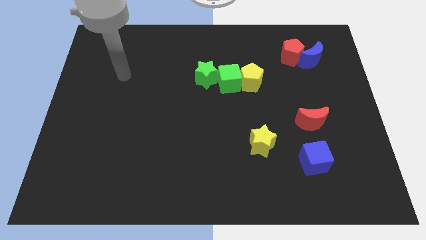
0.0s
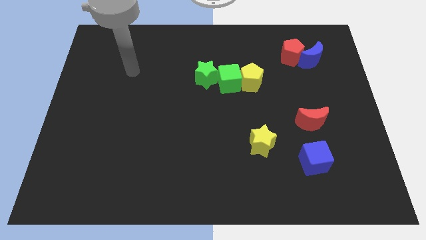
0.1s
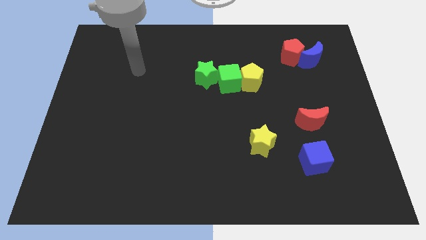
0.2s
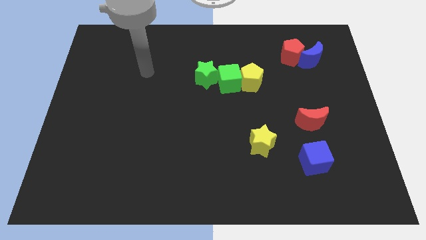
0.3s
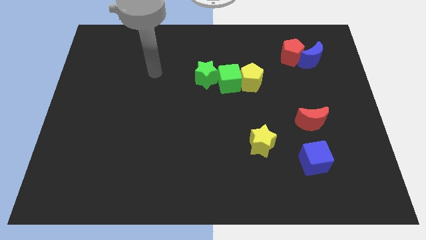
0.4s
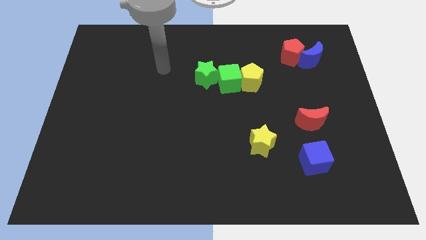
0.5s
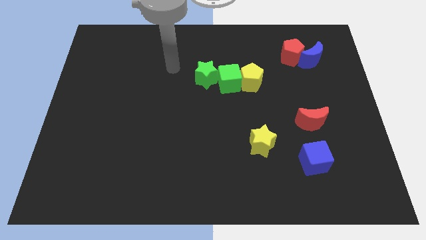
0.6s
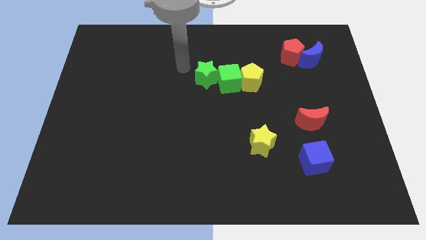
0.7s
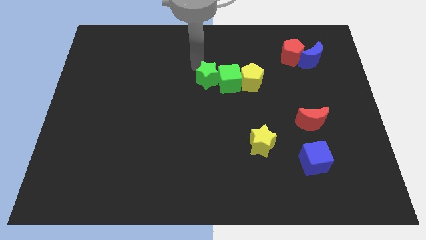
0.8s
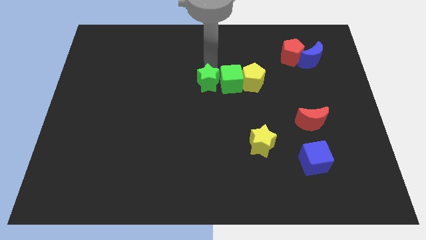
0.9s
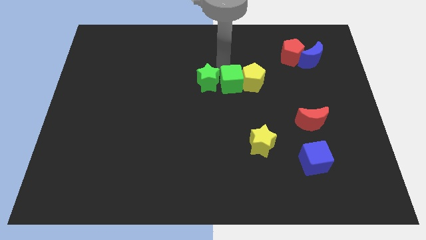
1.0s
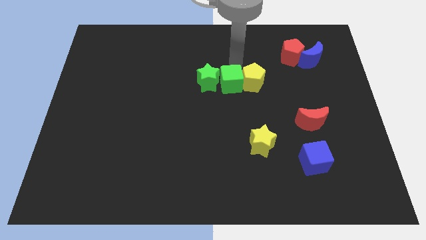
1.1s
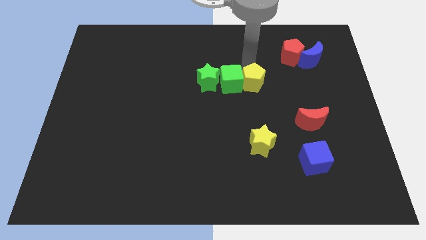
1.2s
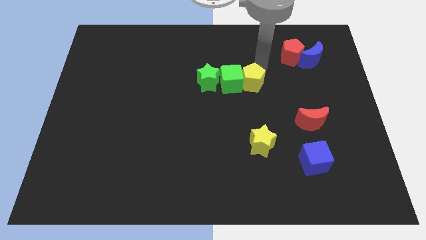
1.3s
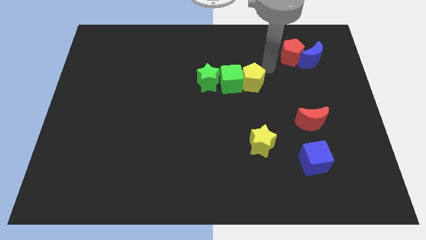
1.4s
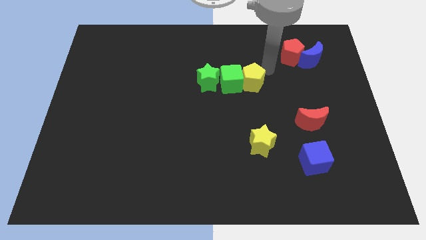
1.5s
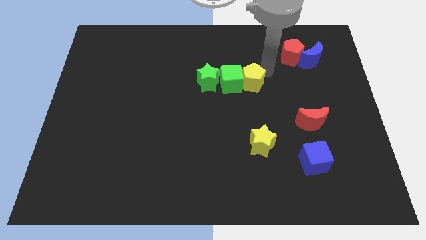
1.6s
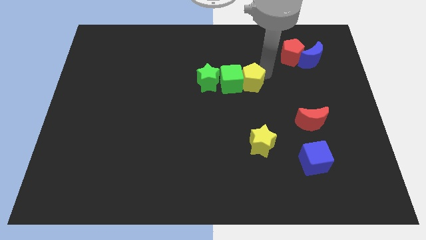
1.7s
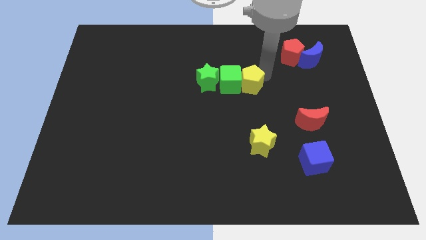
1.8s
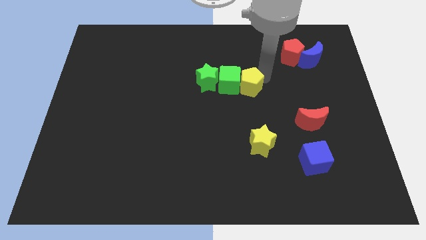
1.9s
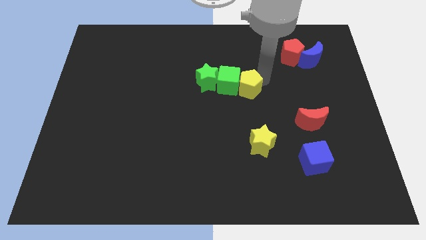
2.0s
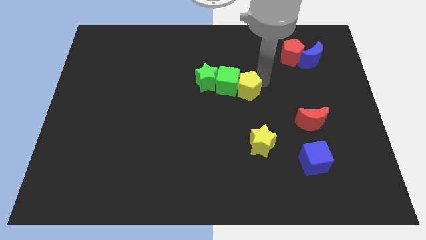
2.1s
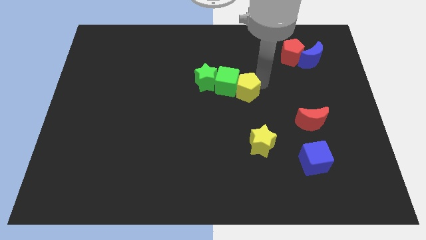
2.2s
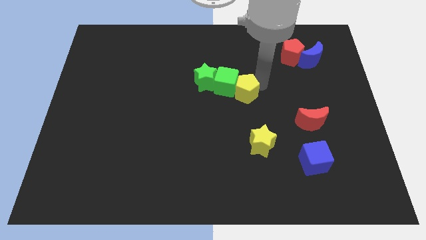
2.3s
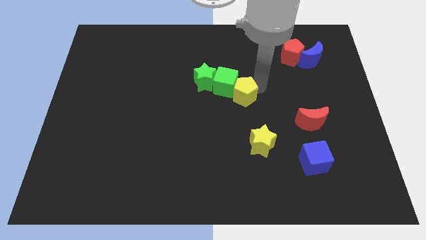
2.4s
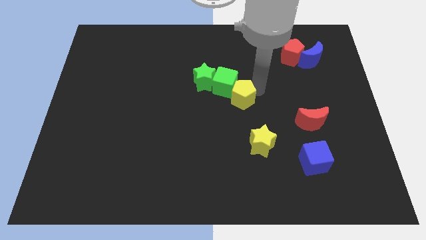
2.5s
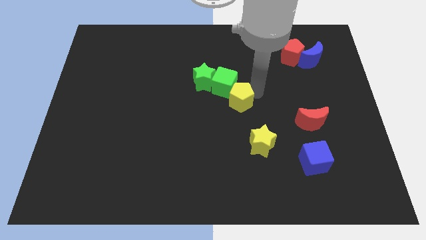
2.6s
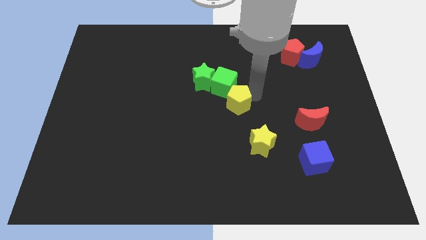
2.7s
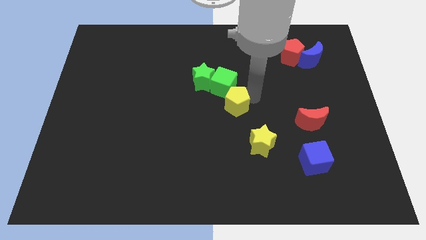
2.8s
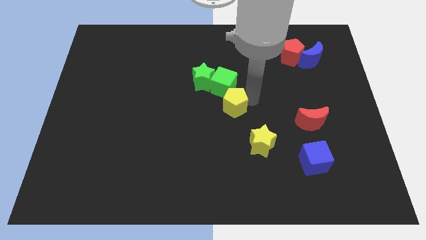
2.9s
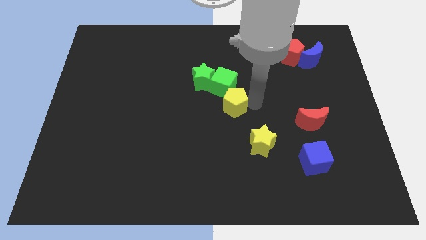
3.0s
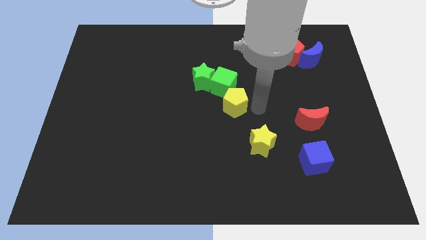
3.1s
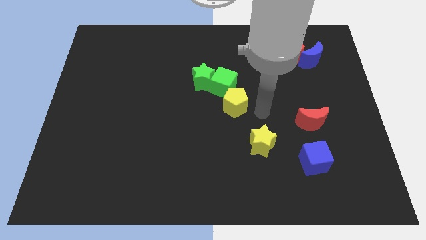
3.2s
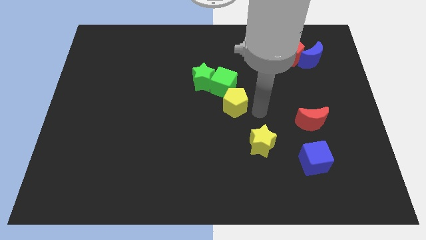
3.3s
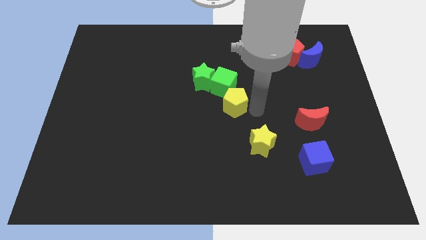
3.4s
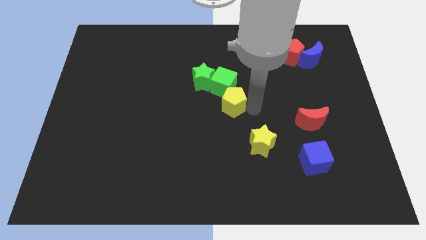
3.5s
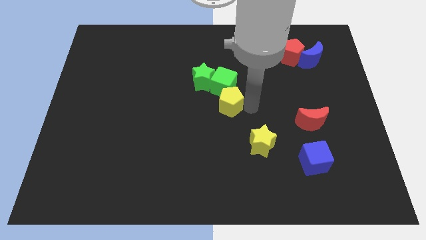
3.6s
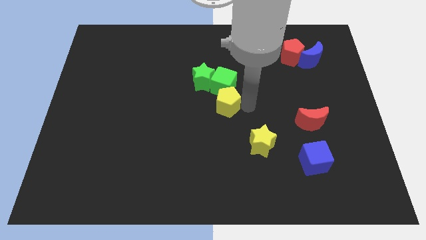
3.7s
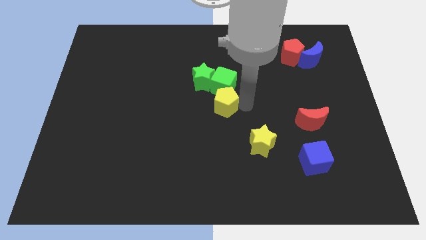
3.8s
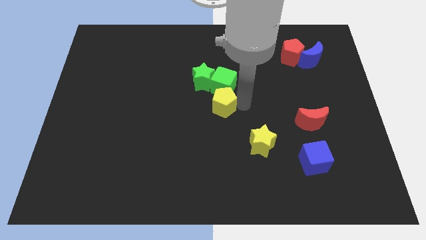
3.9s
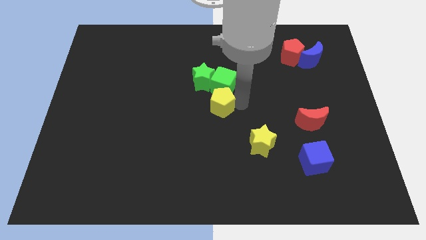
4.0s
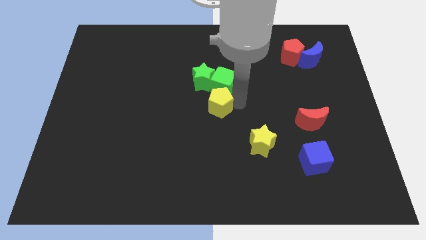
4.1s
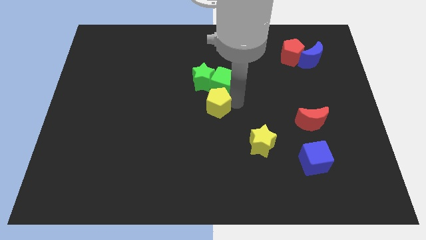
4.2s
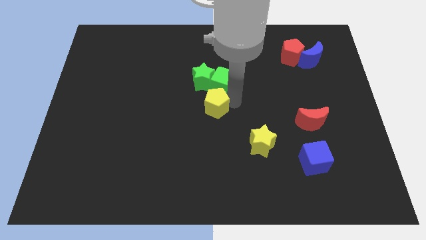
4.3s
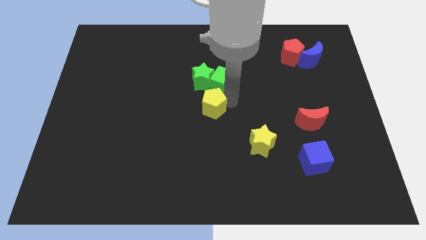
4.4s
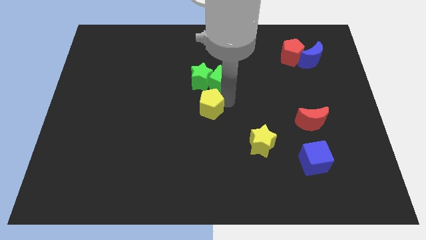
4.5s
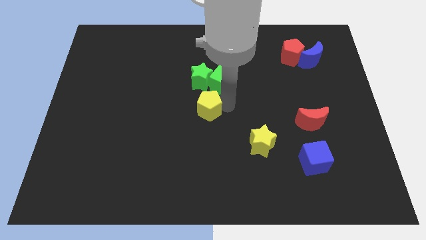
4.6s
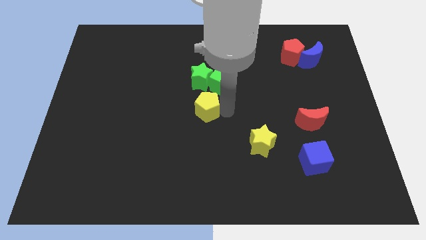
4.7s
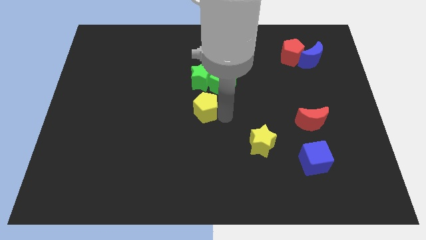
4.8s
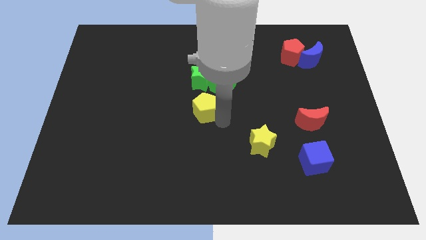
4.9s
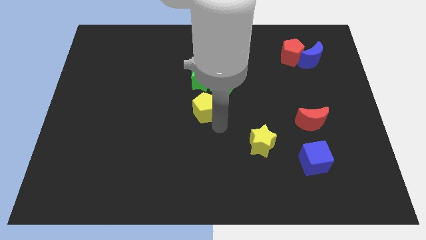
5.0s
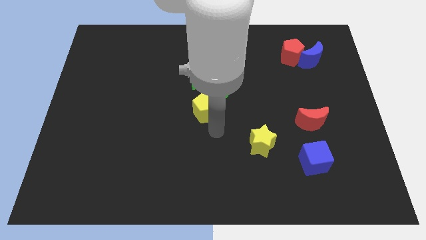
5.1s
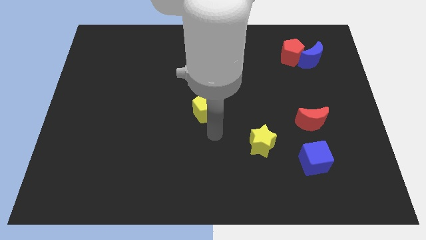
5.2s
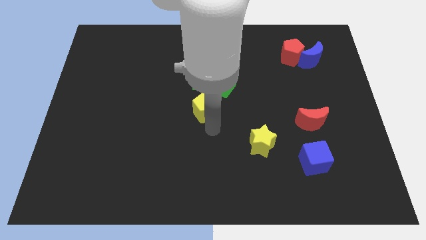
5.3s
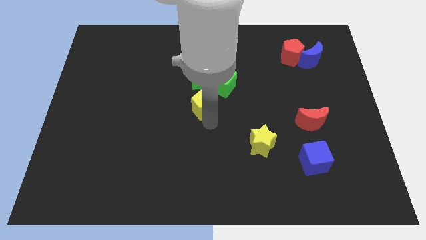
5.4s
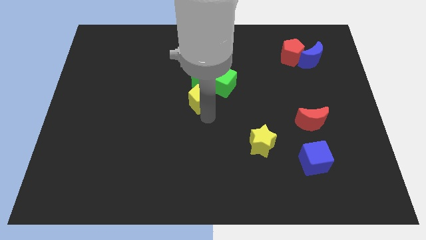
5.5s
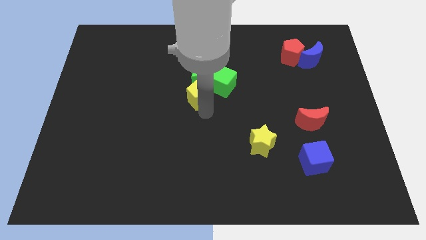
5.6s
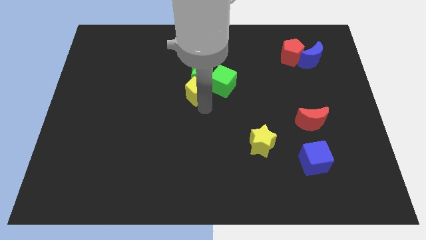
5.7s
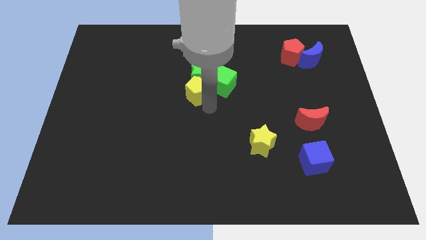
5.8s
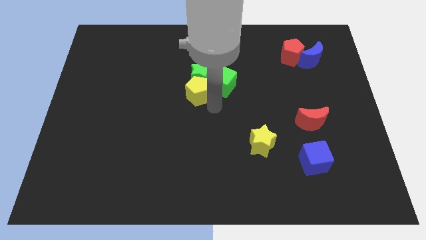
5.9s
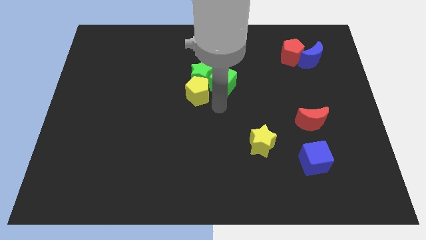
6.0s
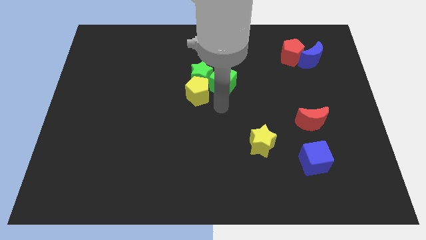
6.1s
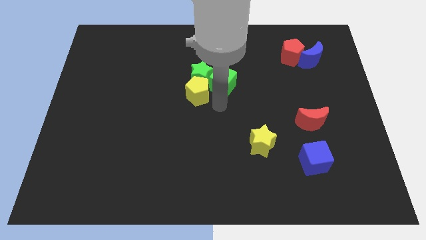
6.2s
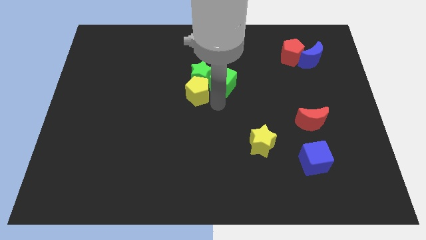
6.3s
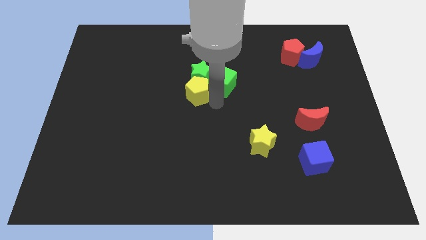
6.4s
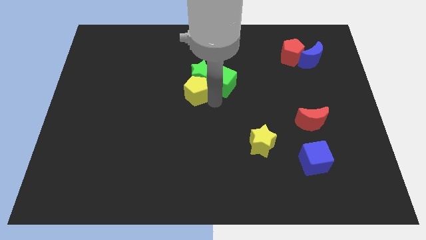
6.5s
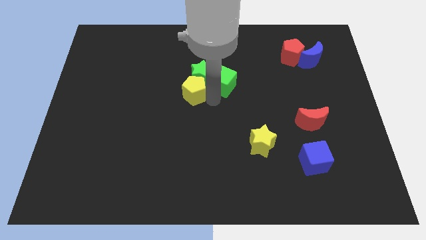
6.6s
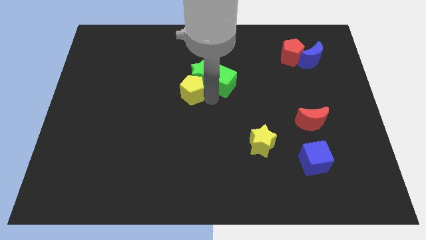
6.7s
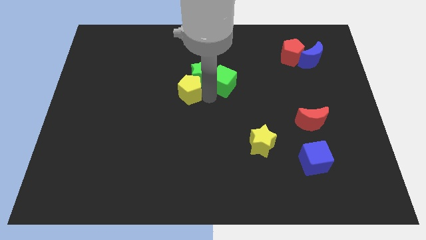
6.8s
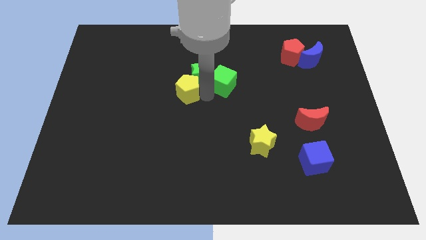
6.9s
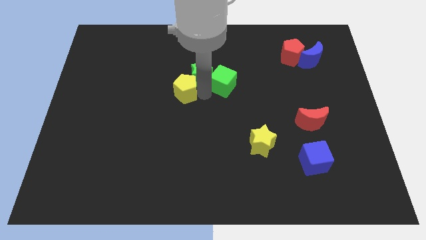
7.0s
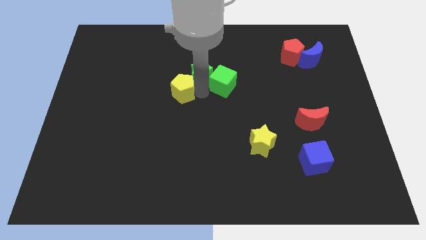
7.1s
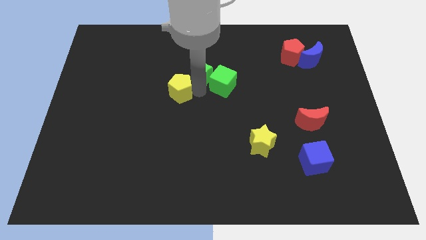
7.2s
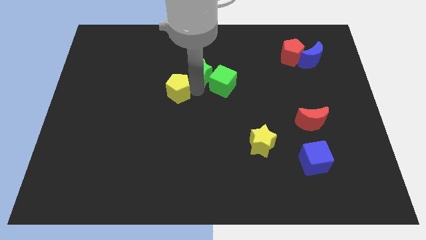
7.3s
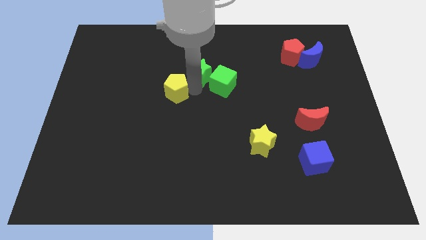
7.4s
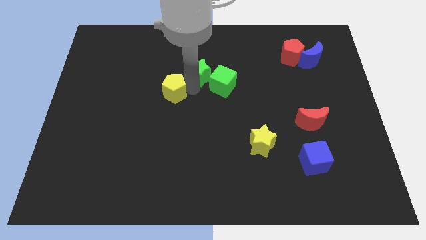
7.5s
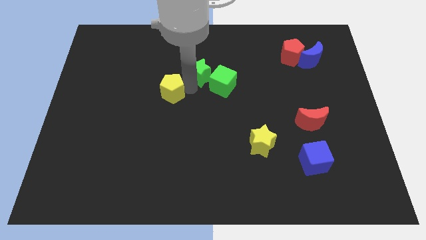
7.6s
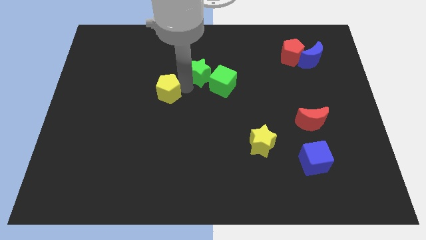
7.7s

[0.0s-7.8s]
move the yellow pentagon left

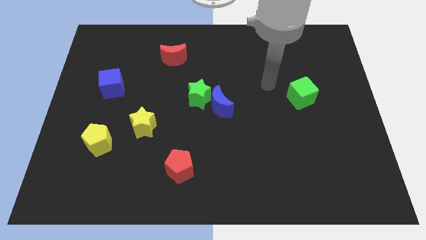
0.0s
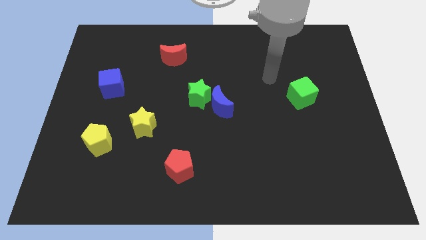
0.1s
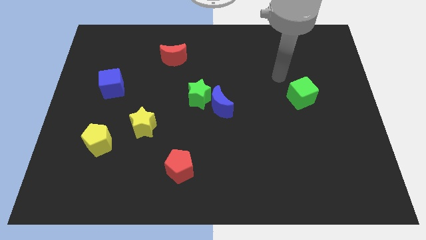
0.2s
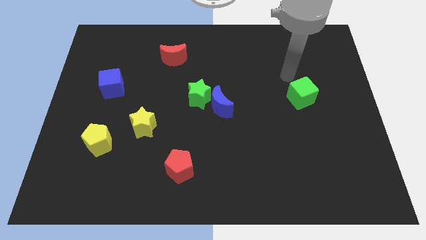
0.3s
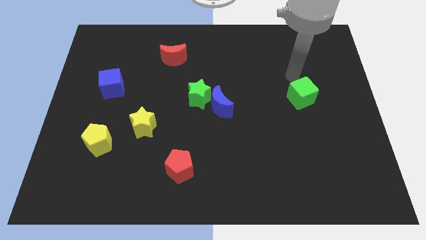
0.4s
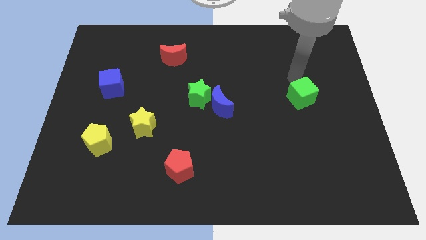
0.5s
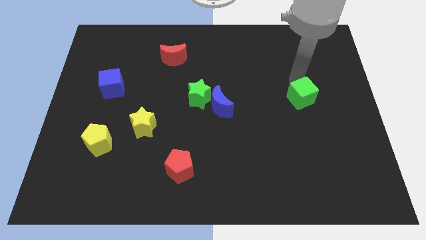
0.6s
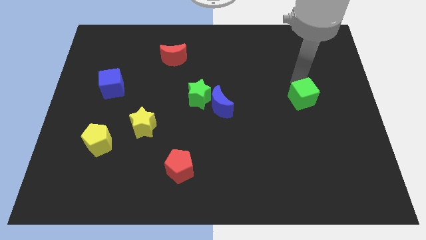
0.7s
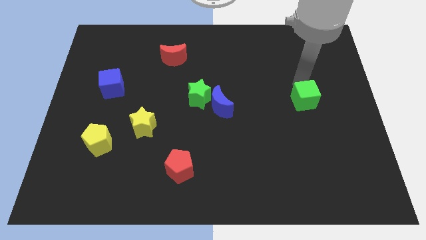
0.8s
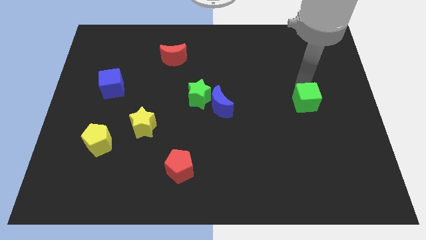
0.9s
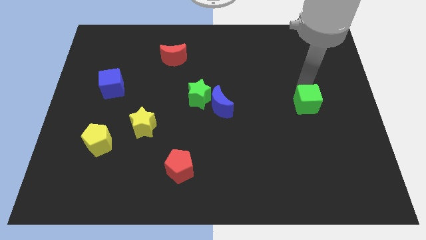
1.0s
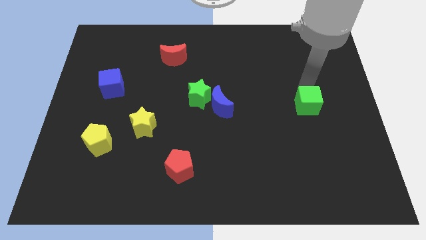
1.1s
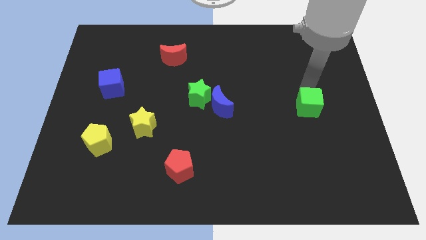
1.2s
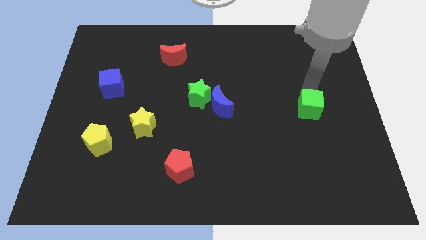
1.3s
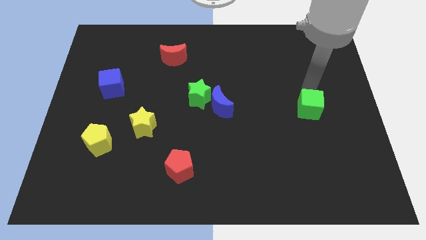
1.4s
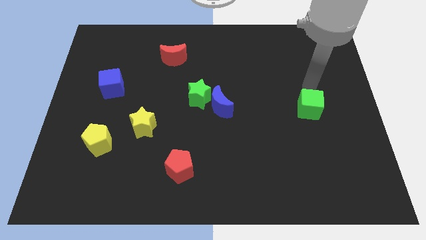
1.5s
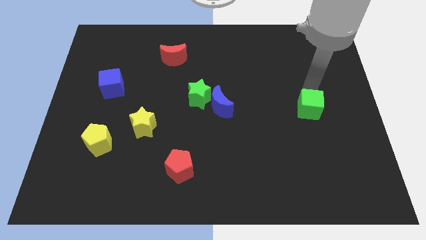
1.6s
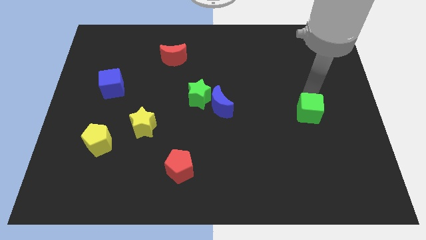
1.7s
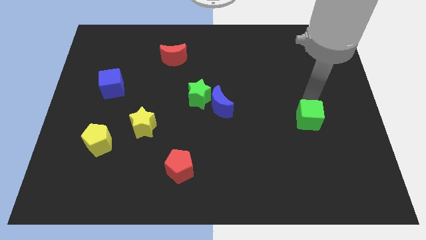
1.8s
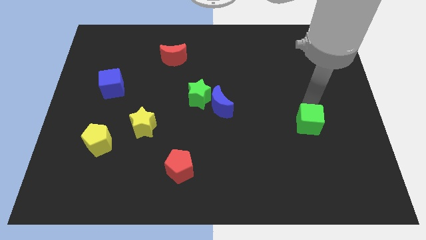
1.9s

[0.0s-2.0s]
move the green cube downwards somewhat
